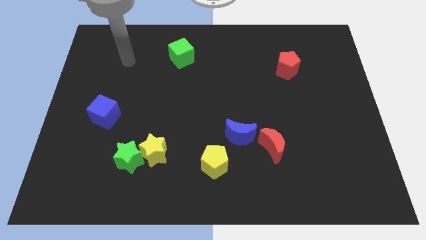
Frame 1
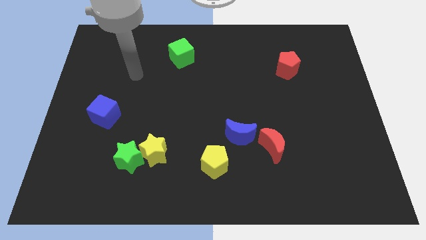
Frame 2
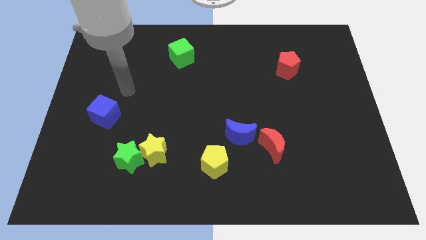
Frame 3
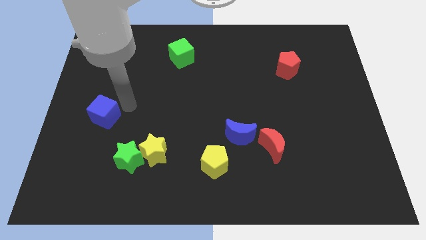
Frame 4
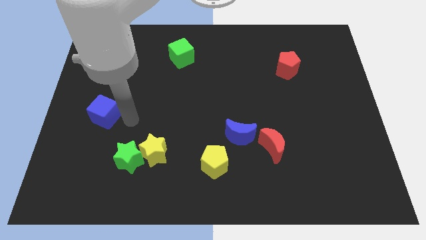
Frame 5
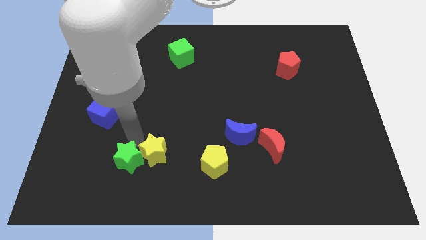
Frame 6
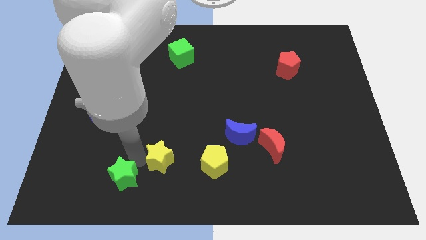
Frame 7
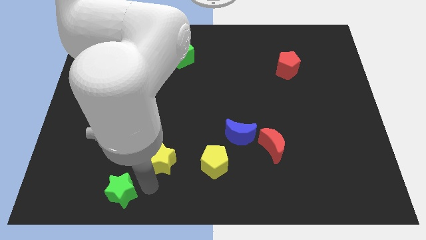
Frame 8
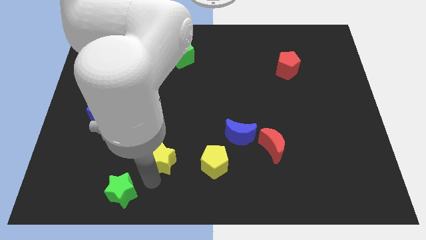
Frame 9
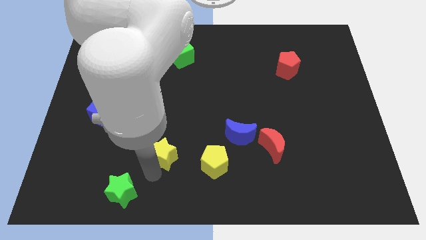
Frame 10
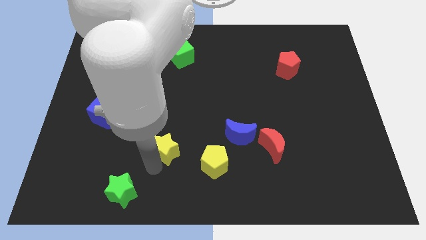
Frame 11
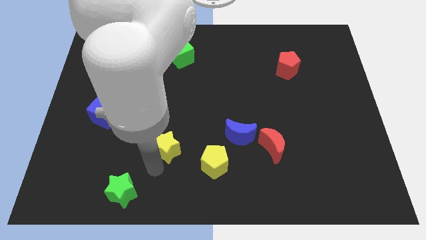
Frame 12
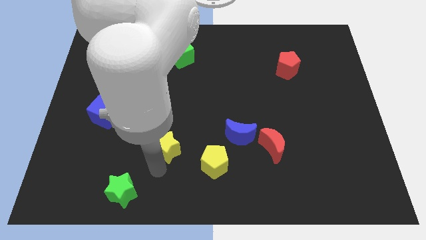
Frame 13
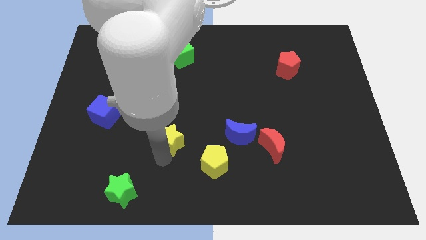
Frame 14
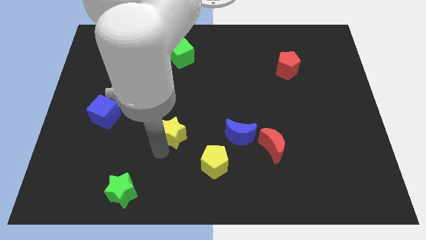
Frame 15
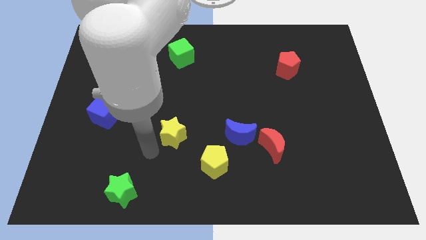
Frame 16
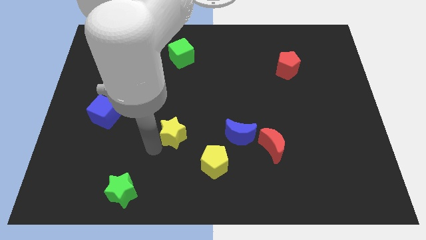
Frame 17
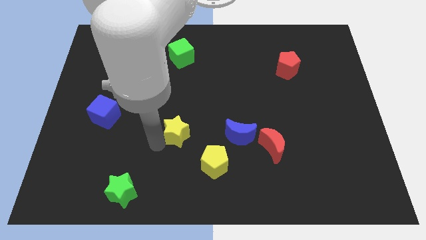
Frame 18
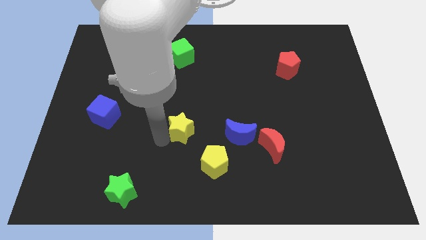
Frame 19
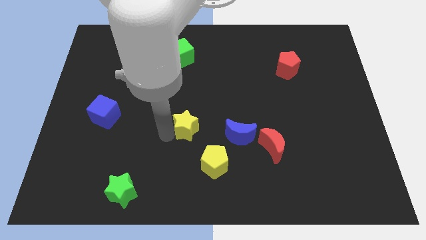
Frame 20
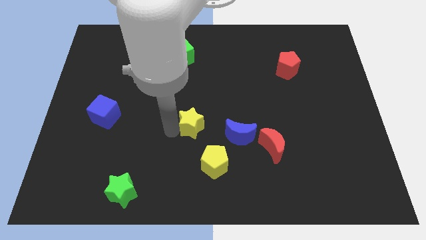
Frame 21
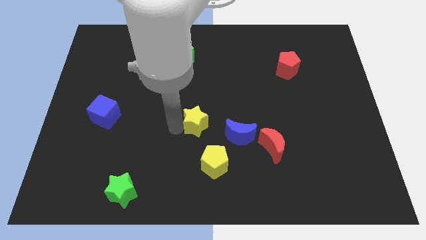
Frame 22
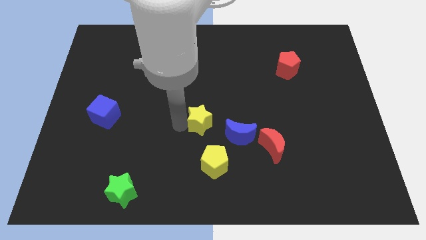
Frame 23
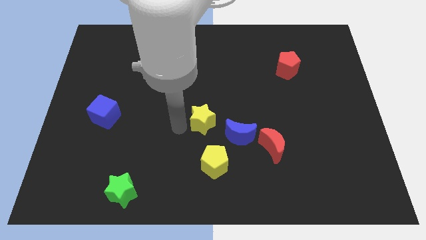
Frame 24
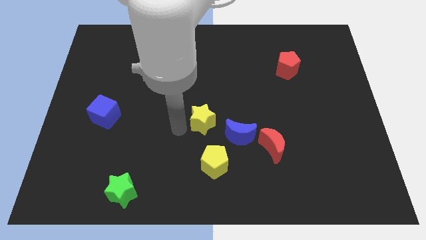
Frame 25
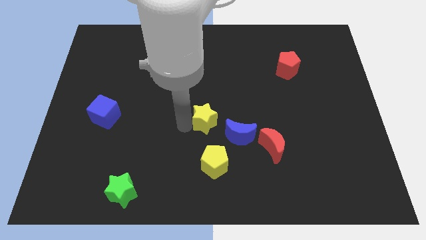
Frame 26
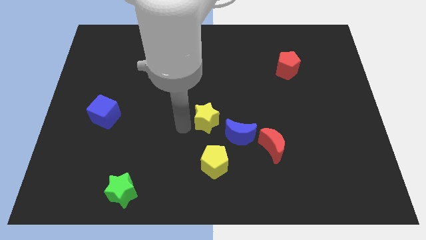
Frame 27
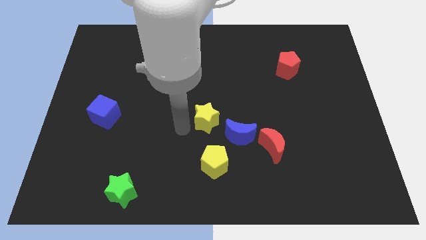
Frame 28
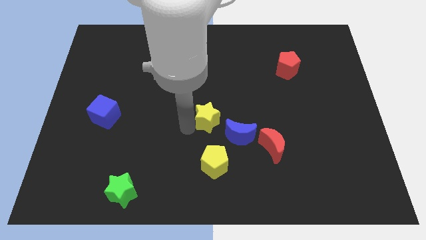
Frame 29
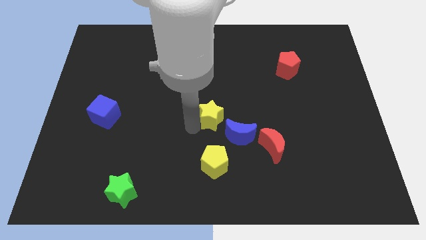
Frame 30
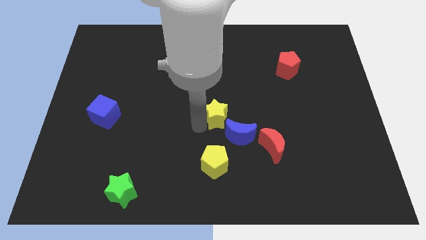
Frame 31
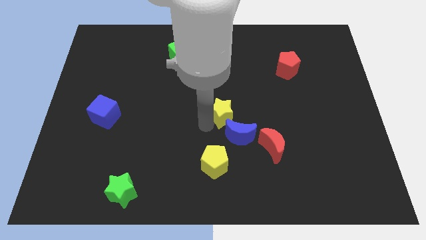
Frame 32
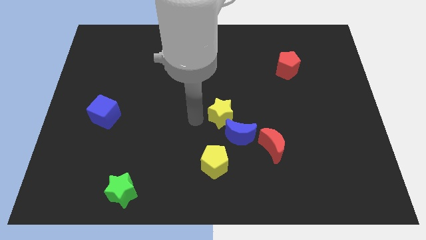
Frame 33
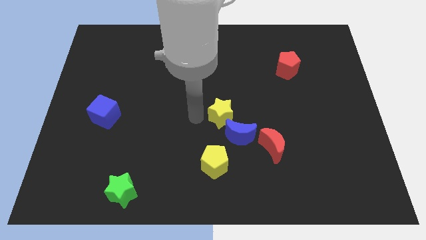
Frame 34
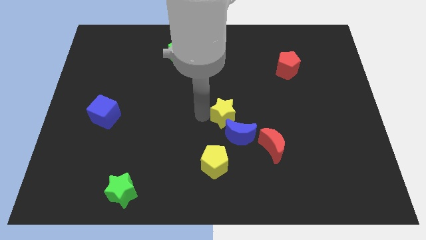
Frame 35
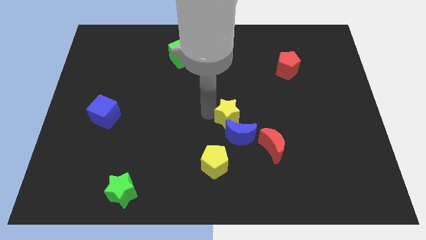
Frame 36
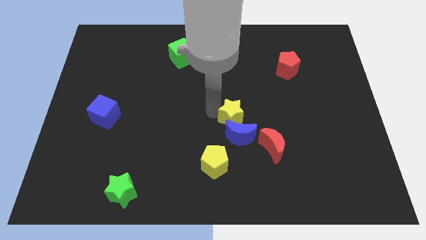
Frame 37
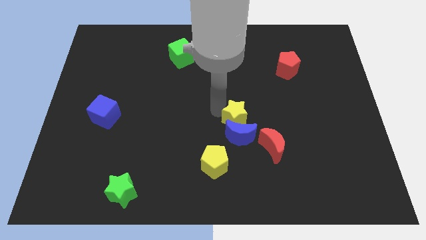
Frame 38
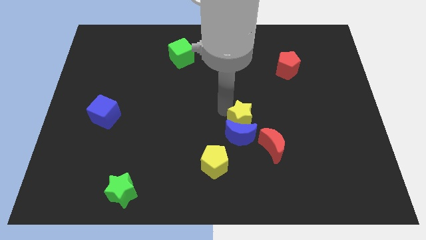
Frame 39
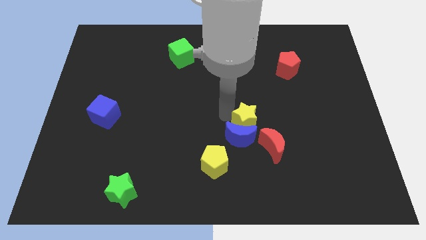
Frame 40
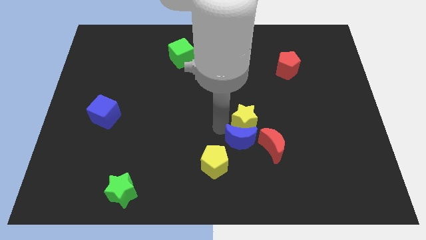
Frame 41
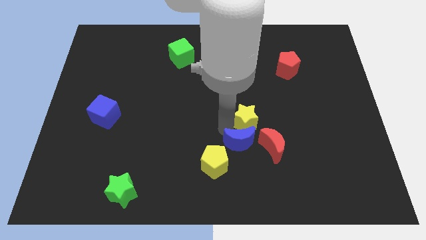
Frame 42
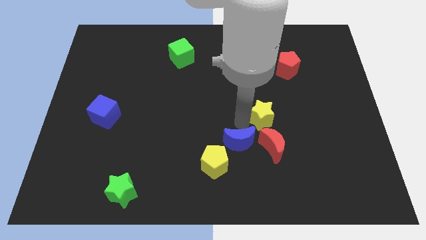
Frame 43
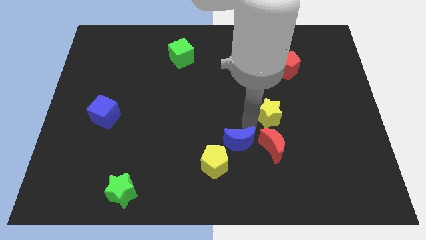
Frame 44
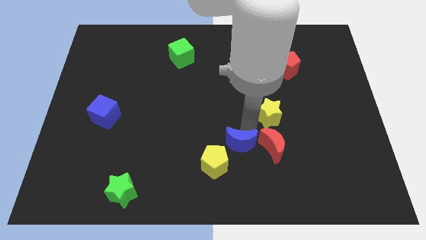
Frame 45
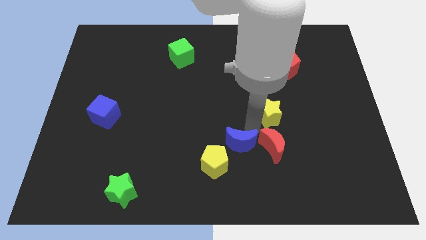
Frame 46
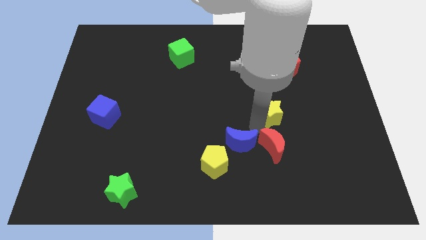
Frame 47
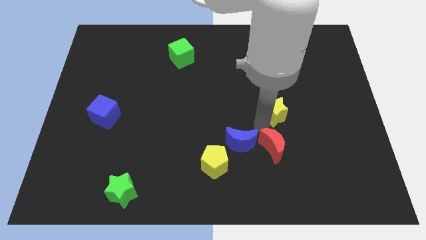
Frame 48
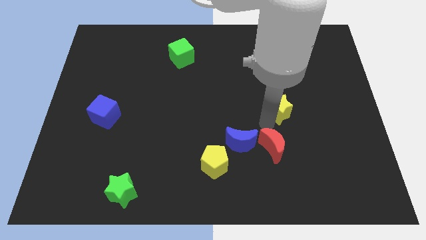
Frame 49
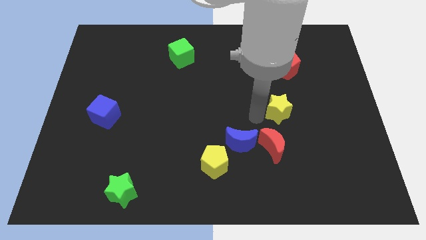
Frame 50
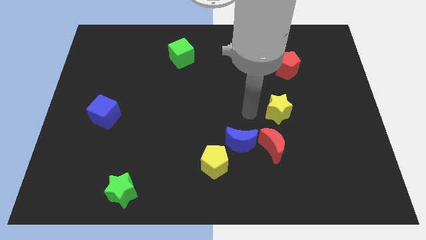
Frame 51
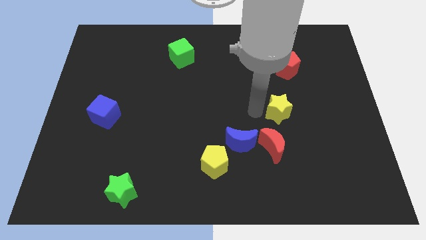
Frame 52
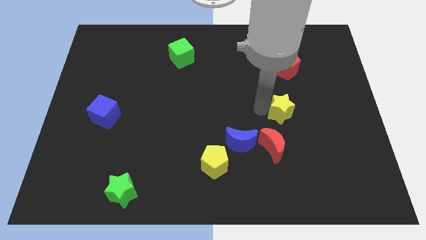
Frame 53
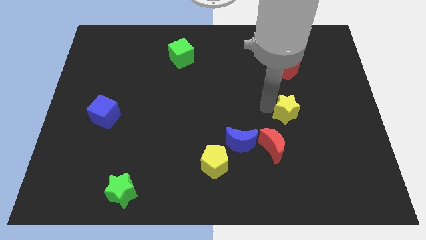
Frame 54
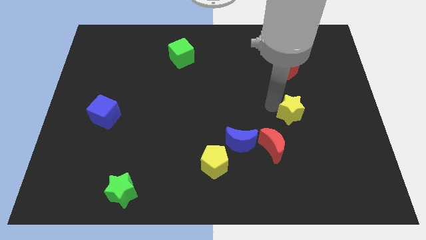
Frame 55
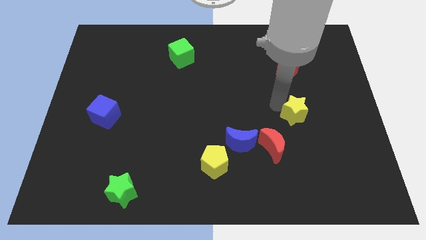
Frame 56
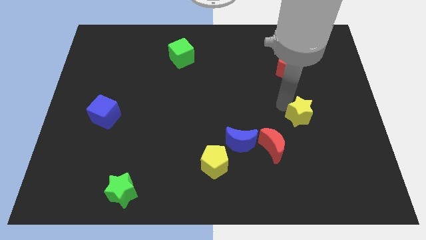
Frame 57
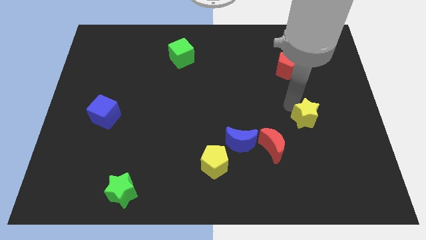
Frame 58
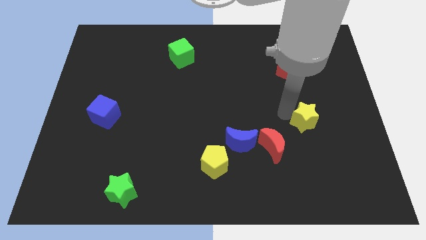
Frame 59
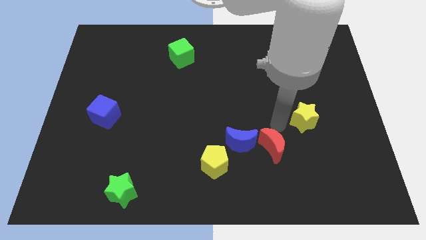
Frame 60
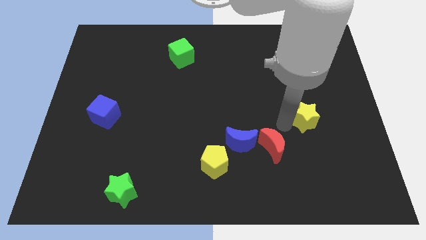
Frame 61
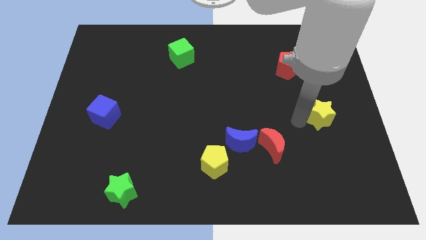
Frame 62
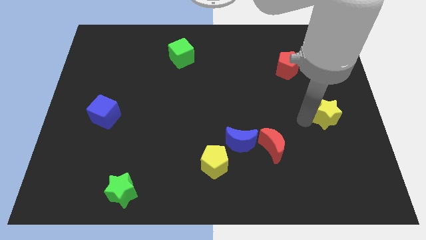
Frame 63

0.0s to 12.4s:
push the yellow star to the right side of the board

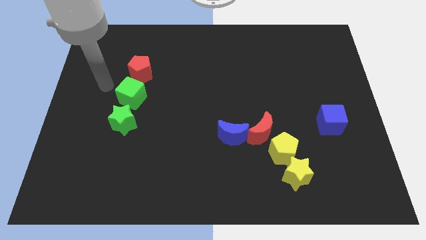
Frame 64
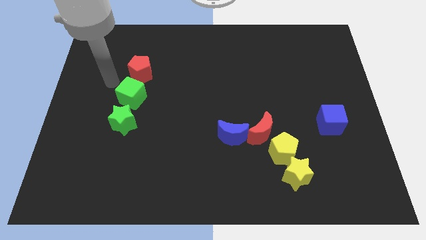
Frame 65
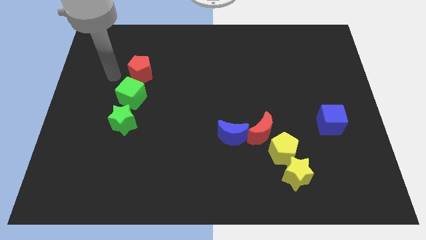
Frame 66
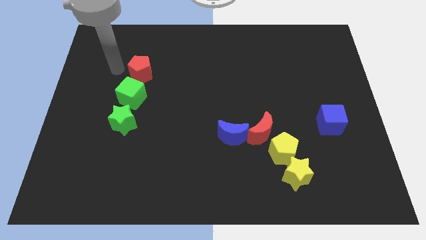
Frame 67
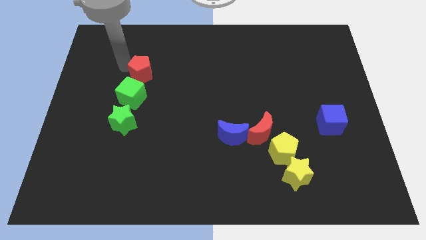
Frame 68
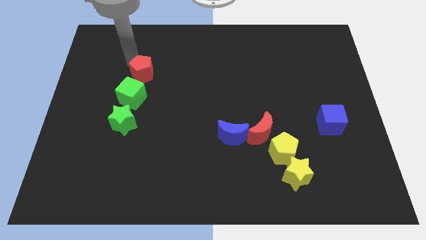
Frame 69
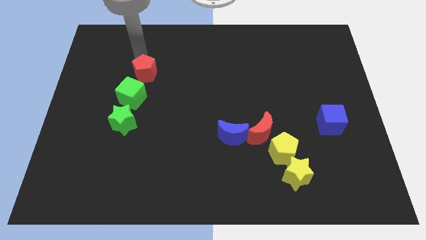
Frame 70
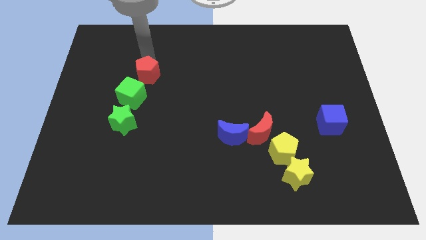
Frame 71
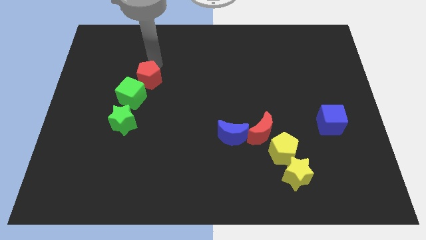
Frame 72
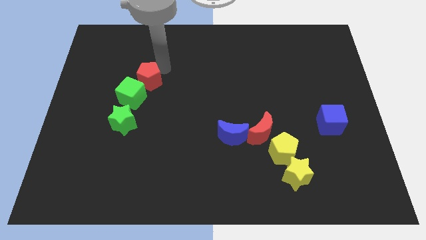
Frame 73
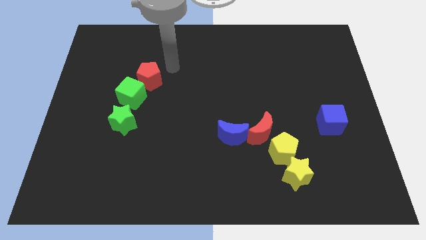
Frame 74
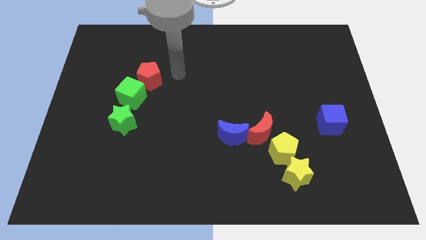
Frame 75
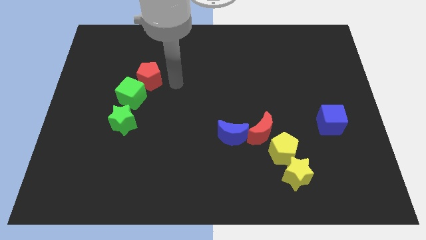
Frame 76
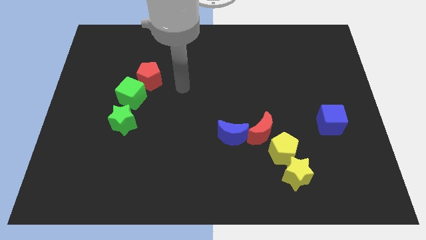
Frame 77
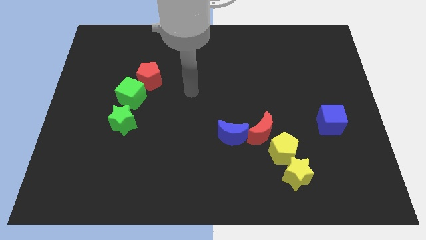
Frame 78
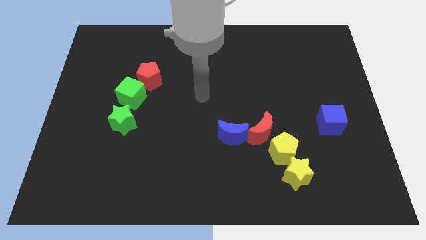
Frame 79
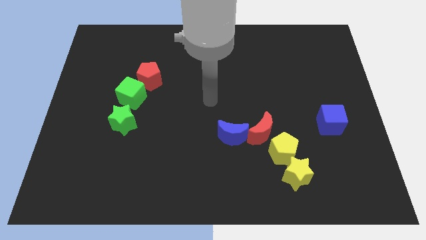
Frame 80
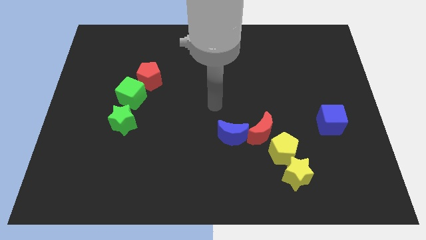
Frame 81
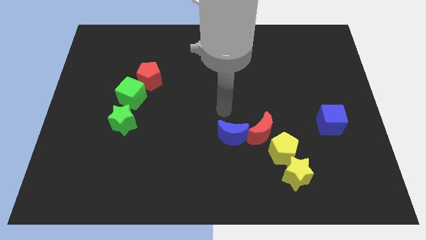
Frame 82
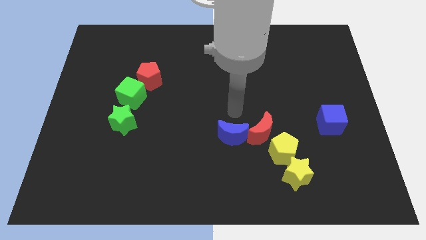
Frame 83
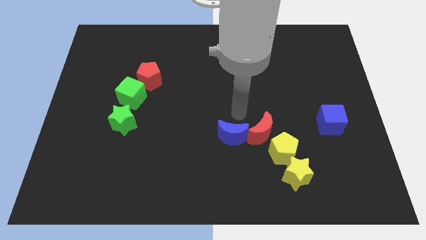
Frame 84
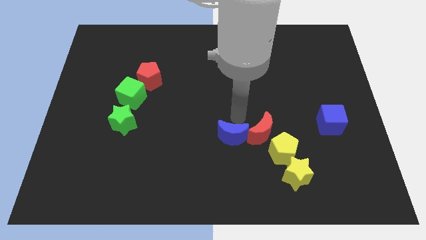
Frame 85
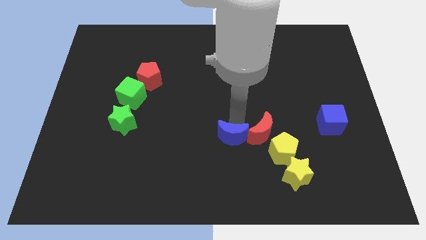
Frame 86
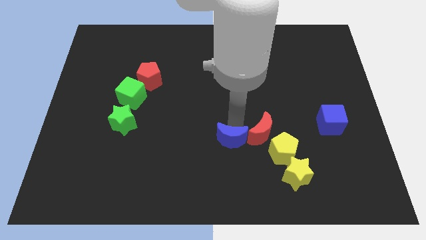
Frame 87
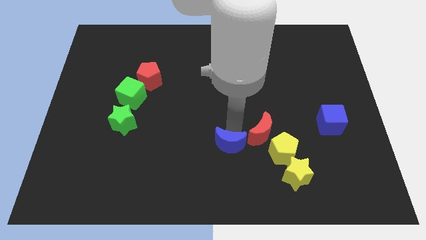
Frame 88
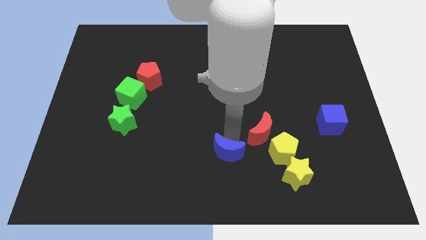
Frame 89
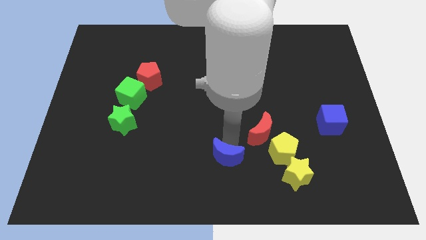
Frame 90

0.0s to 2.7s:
move the blue moon to the bottom
